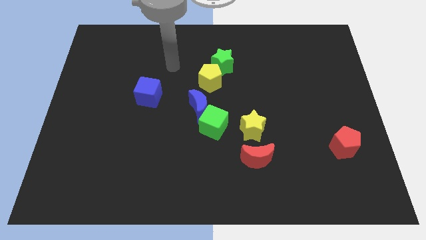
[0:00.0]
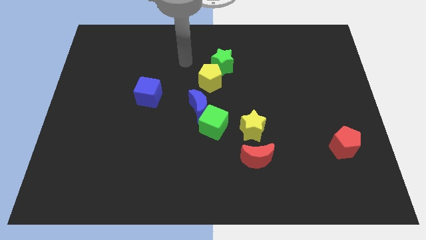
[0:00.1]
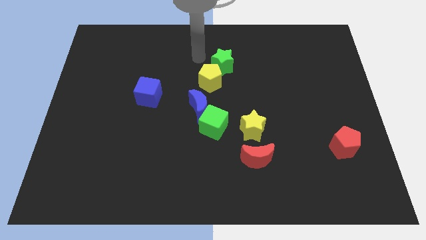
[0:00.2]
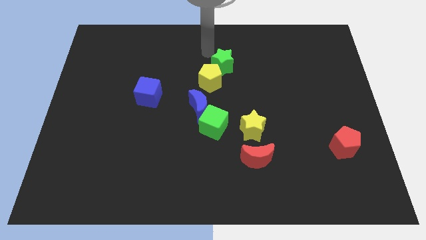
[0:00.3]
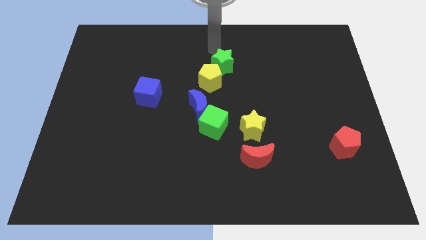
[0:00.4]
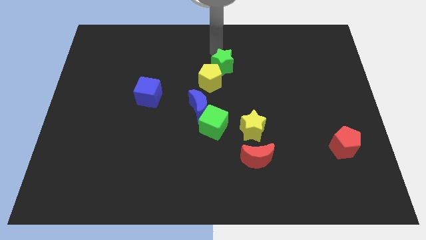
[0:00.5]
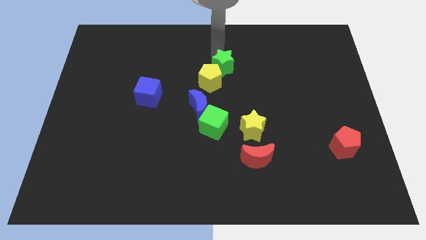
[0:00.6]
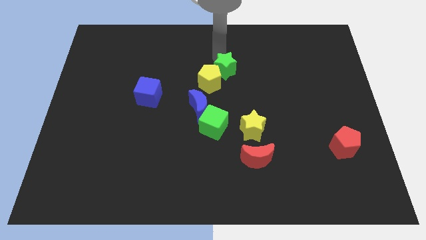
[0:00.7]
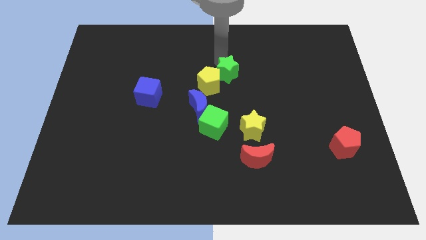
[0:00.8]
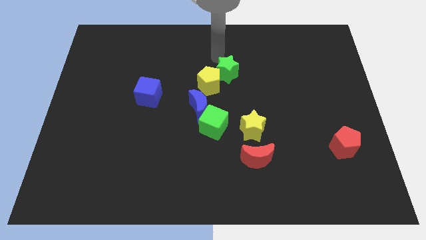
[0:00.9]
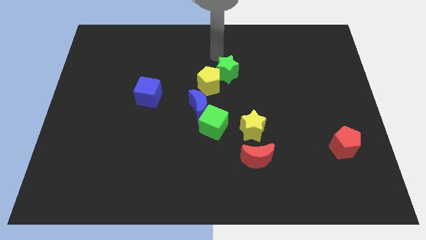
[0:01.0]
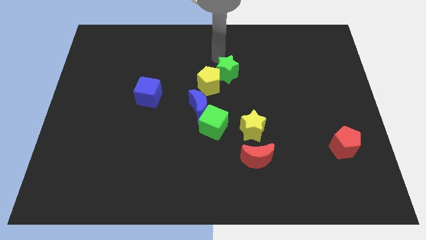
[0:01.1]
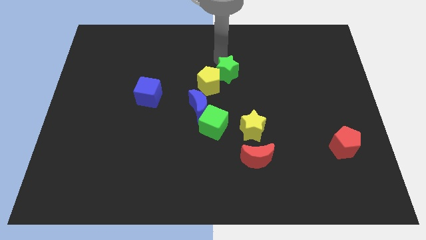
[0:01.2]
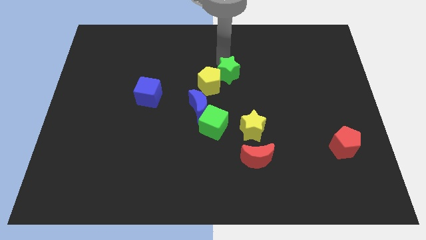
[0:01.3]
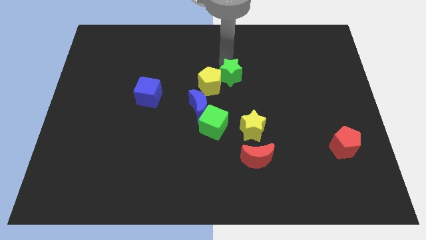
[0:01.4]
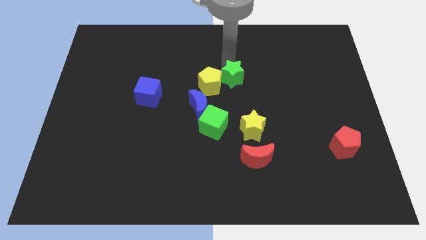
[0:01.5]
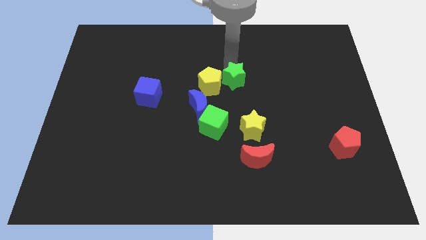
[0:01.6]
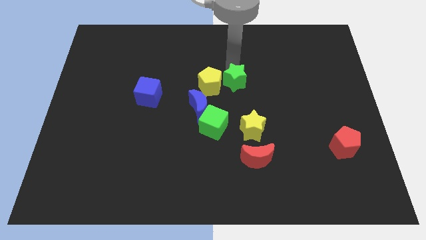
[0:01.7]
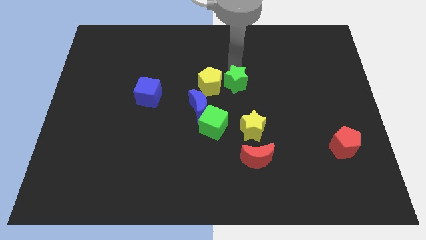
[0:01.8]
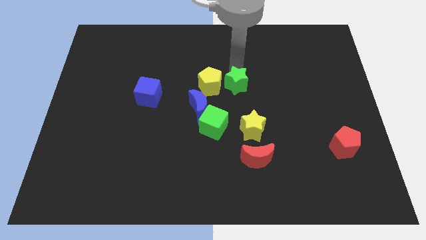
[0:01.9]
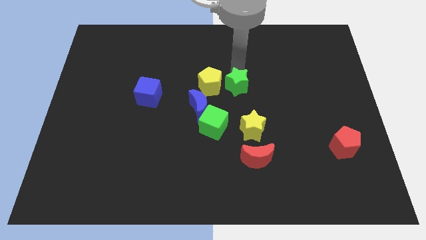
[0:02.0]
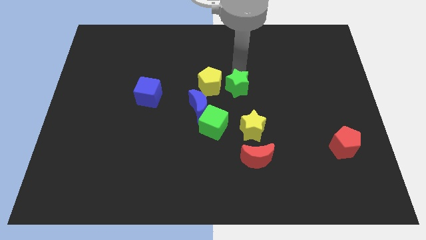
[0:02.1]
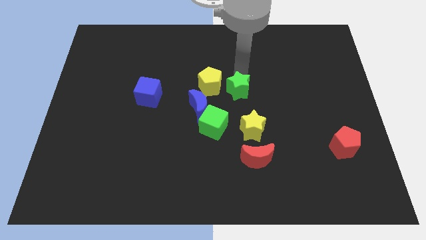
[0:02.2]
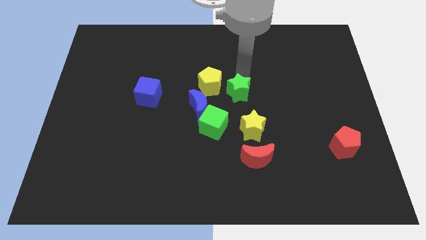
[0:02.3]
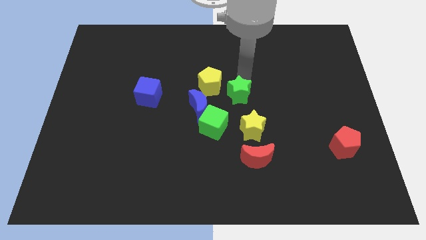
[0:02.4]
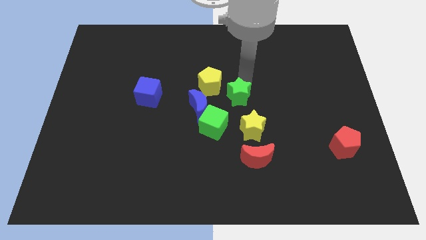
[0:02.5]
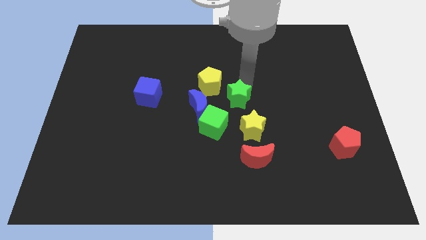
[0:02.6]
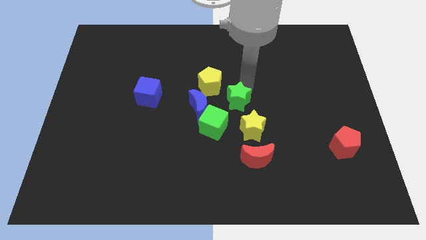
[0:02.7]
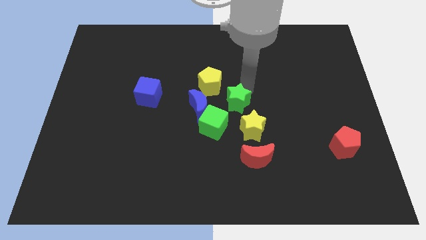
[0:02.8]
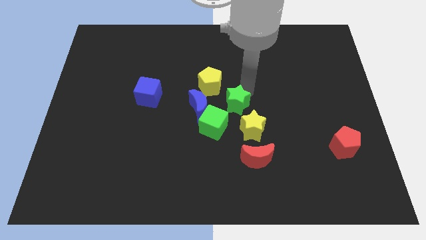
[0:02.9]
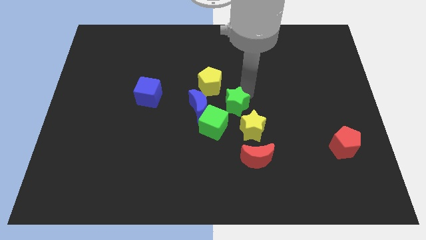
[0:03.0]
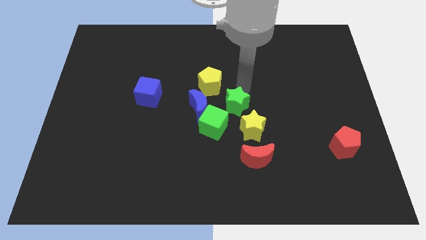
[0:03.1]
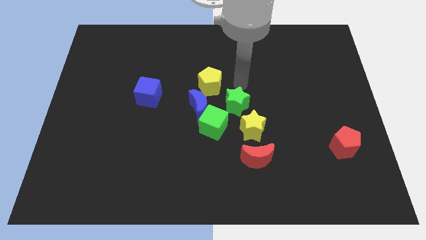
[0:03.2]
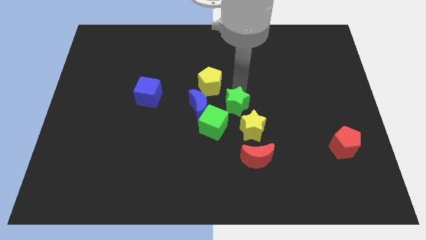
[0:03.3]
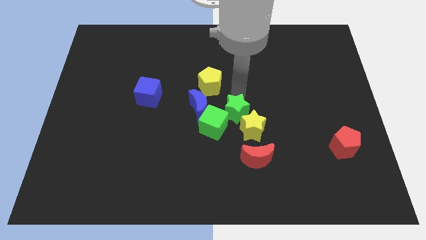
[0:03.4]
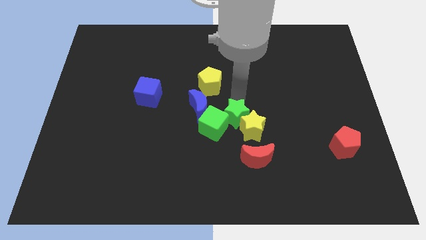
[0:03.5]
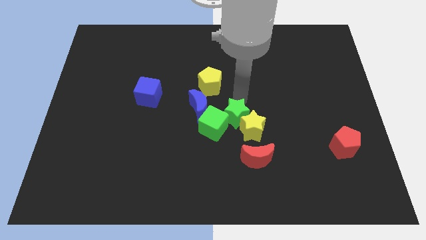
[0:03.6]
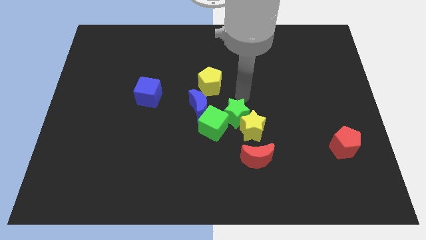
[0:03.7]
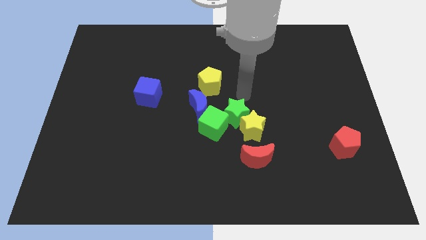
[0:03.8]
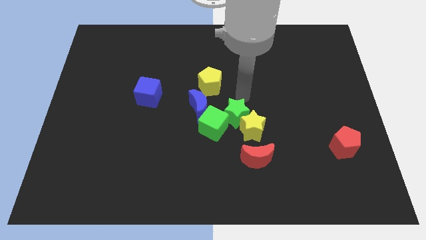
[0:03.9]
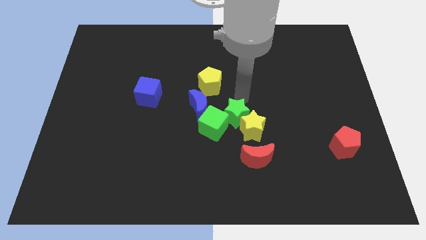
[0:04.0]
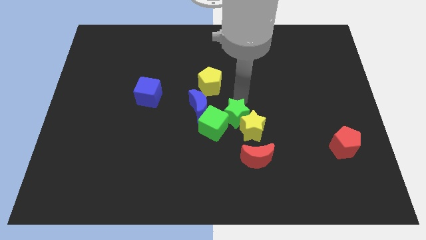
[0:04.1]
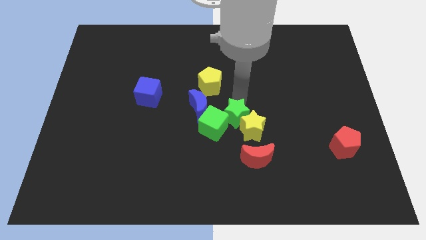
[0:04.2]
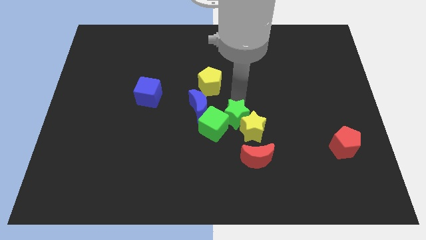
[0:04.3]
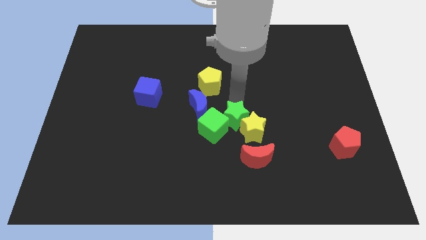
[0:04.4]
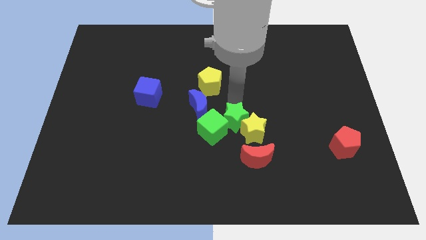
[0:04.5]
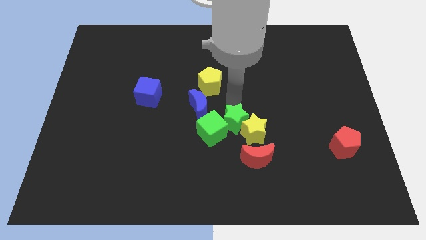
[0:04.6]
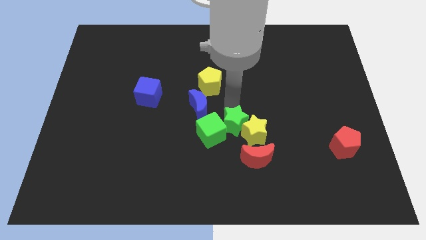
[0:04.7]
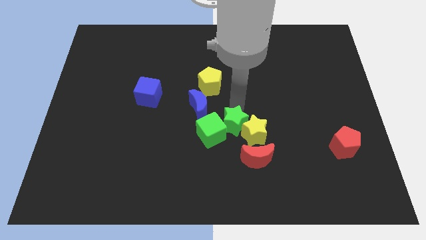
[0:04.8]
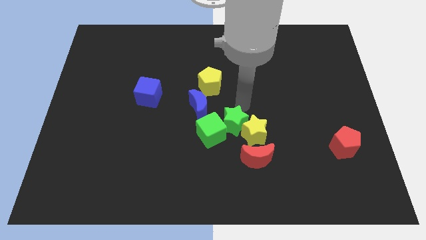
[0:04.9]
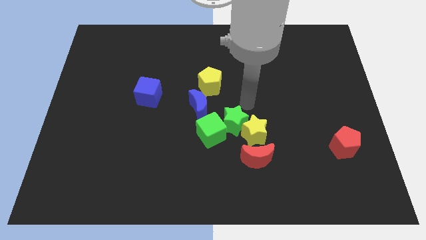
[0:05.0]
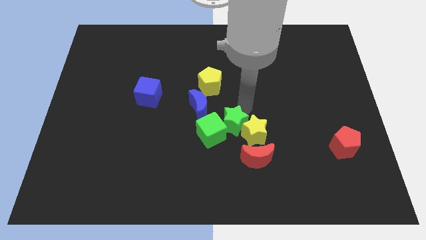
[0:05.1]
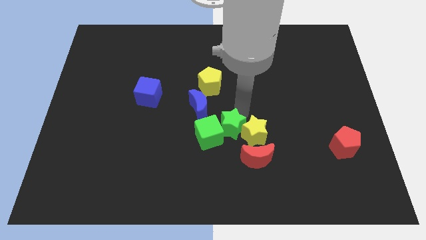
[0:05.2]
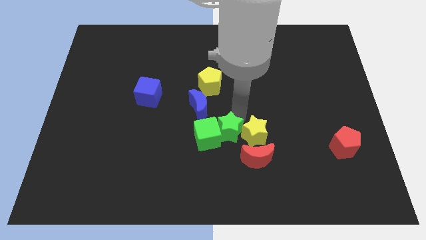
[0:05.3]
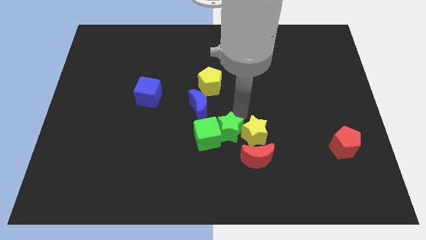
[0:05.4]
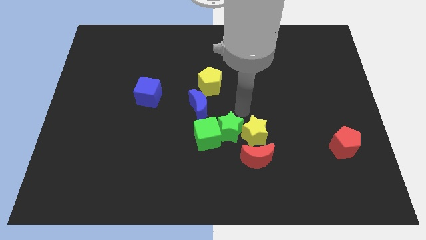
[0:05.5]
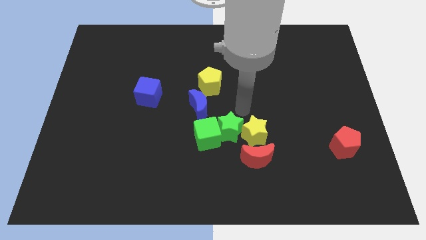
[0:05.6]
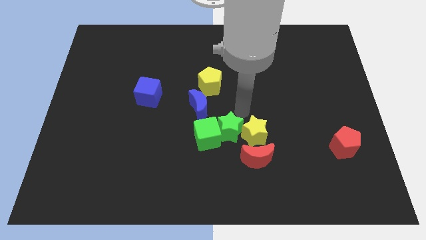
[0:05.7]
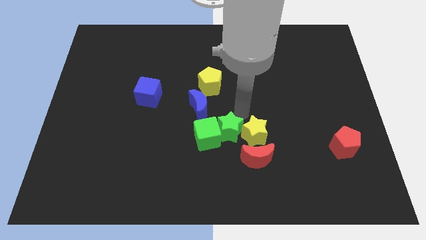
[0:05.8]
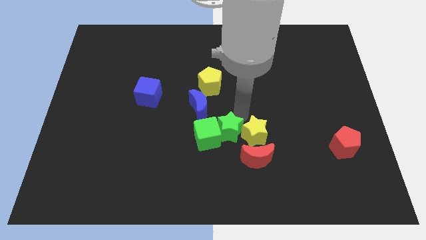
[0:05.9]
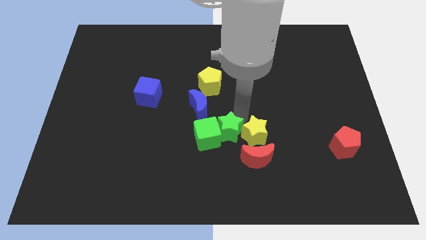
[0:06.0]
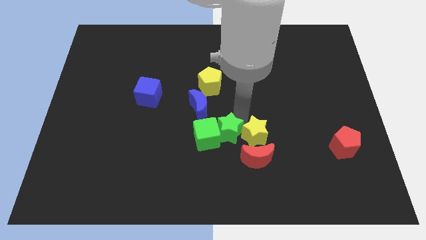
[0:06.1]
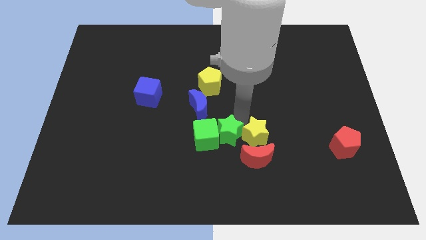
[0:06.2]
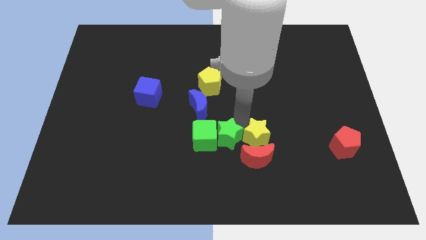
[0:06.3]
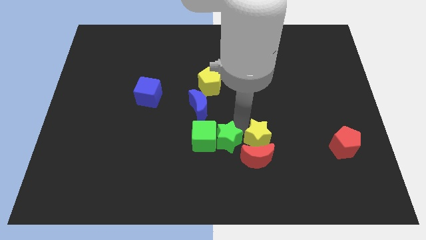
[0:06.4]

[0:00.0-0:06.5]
slide the green star left of the red moon

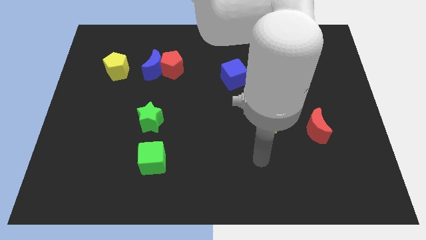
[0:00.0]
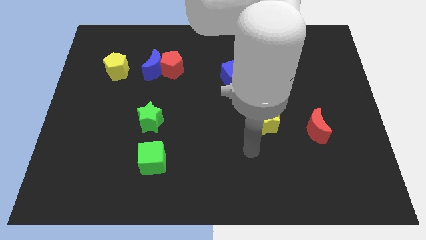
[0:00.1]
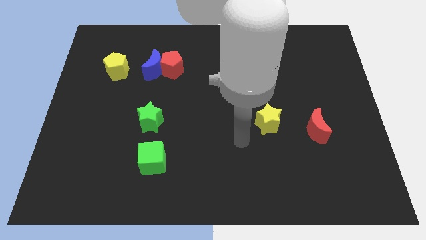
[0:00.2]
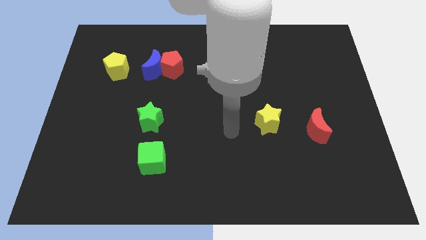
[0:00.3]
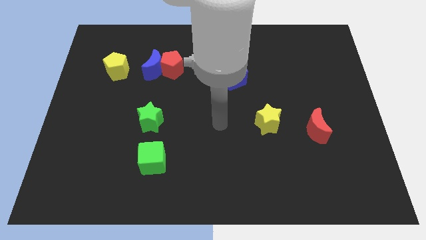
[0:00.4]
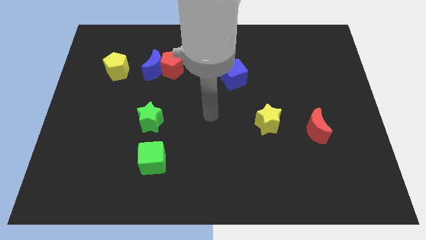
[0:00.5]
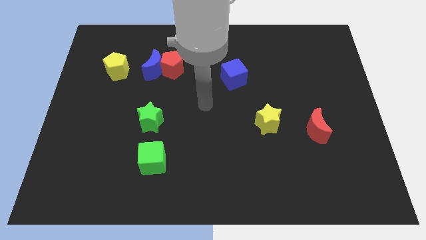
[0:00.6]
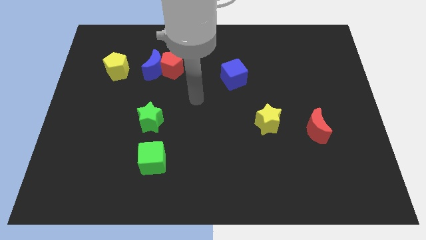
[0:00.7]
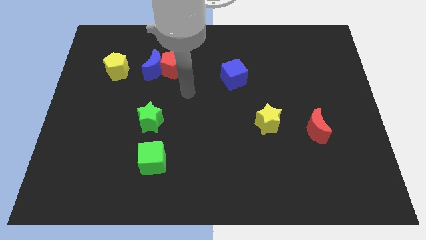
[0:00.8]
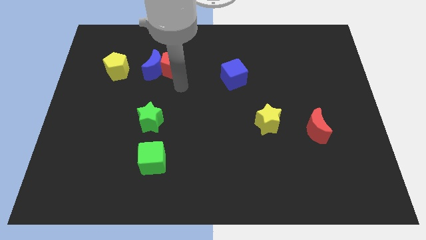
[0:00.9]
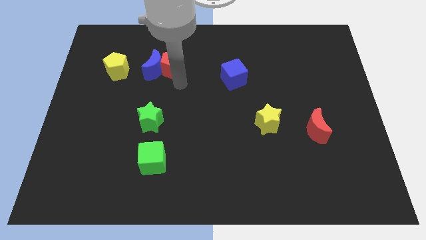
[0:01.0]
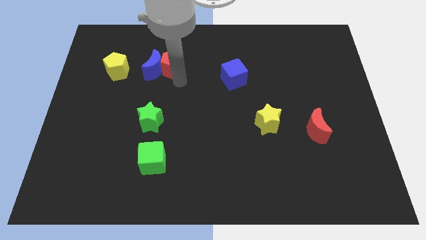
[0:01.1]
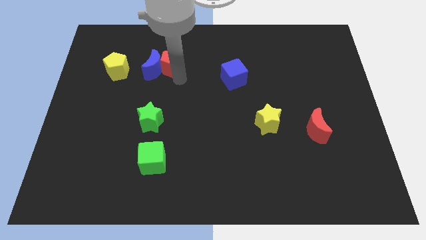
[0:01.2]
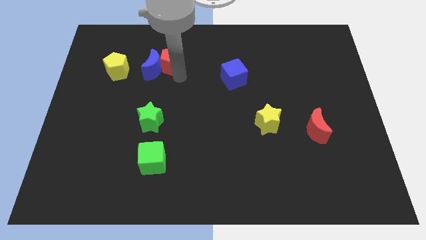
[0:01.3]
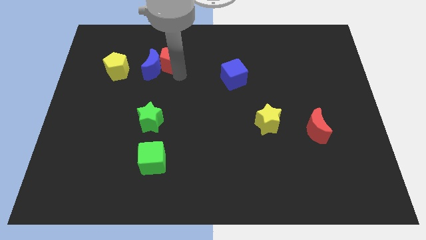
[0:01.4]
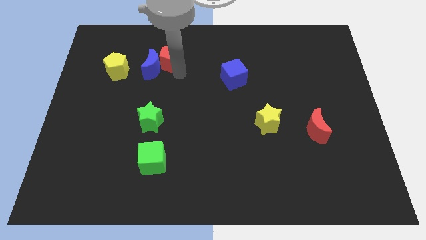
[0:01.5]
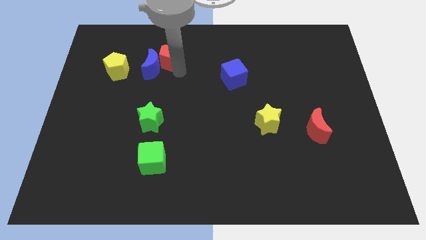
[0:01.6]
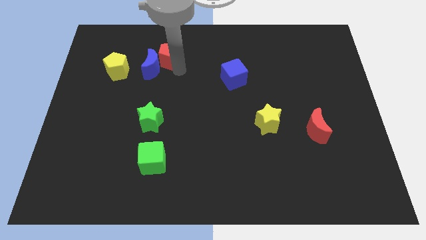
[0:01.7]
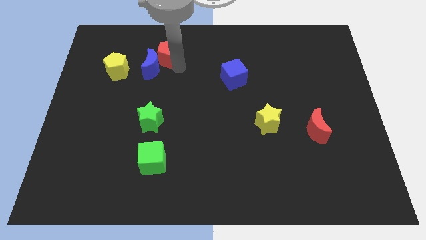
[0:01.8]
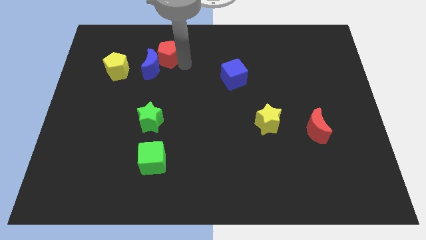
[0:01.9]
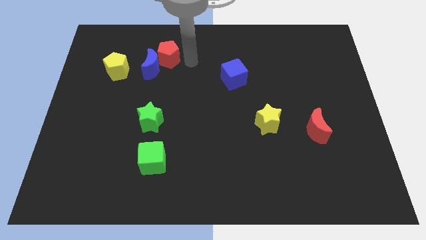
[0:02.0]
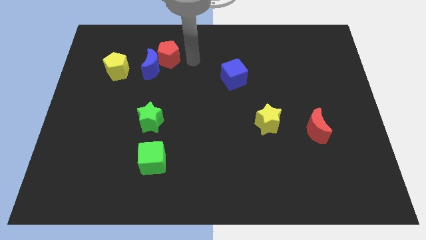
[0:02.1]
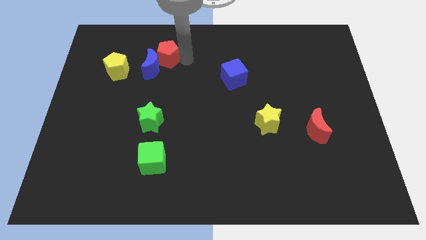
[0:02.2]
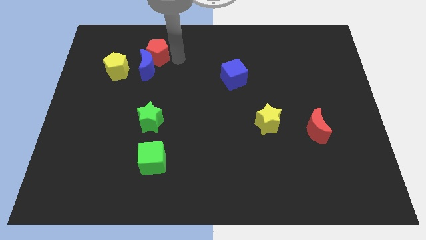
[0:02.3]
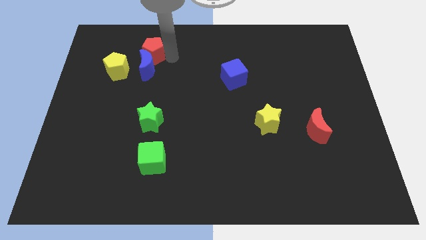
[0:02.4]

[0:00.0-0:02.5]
push the red pentagon to the top left of the blue moon
